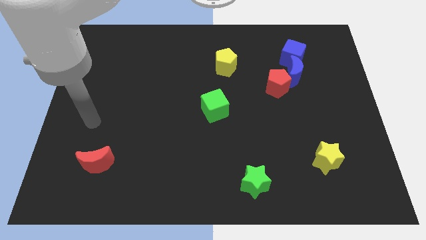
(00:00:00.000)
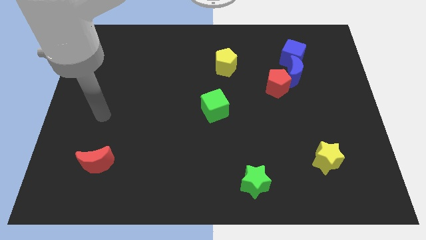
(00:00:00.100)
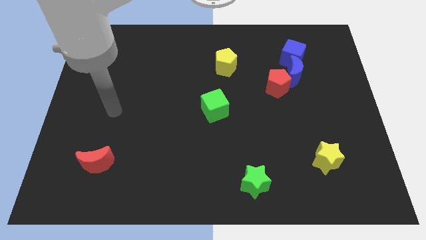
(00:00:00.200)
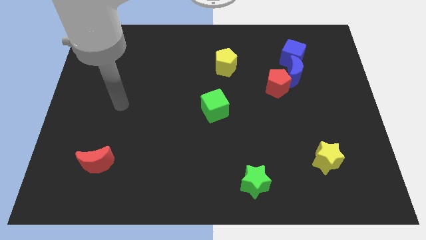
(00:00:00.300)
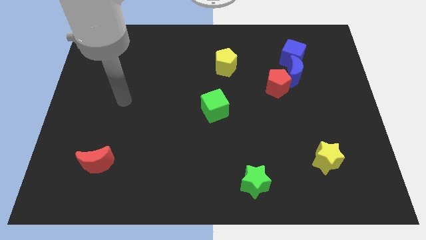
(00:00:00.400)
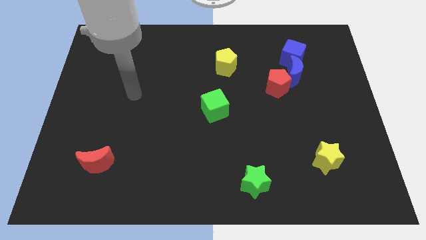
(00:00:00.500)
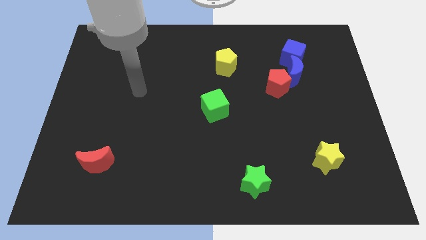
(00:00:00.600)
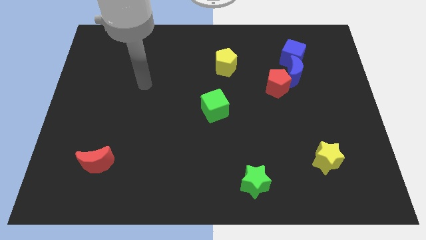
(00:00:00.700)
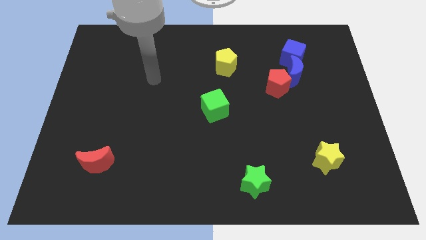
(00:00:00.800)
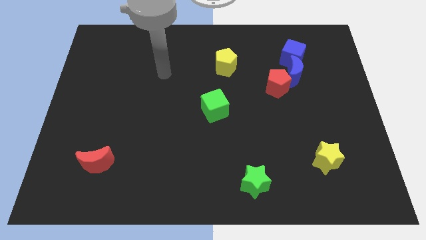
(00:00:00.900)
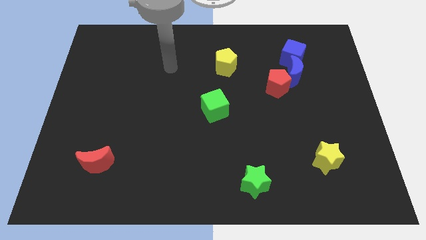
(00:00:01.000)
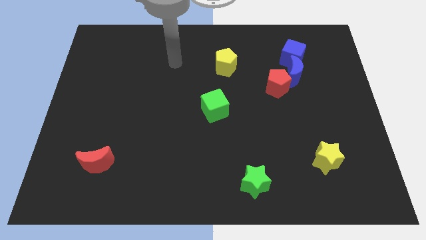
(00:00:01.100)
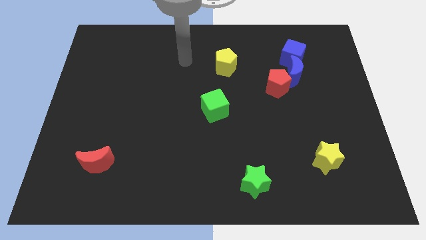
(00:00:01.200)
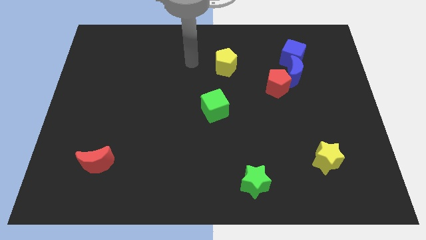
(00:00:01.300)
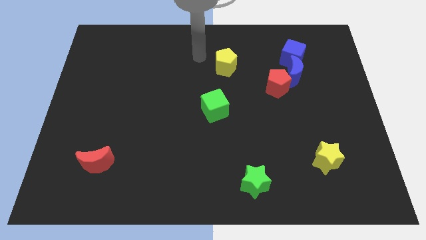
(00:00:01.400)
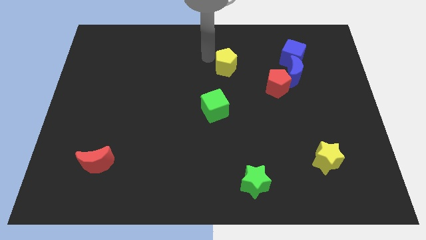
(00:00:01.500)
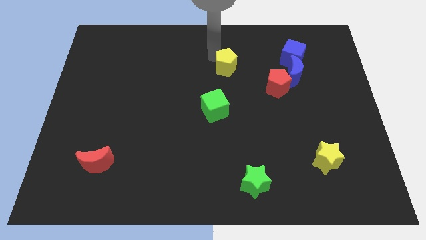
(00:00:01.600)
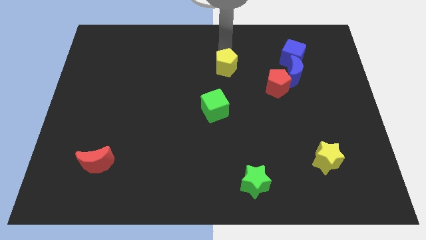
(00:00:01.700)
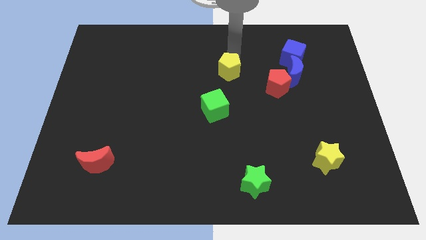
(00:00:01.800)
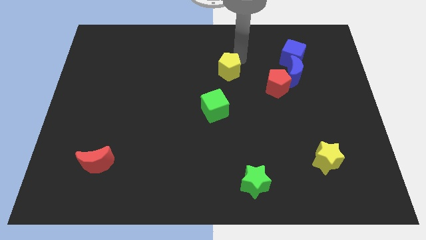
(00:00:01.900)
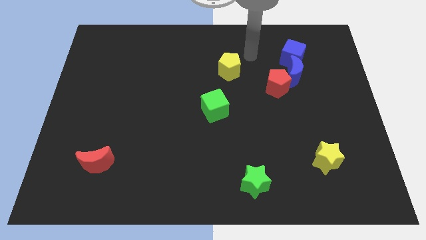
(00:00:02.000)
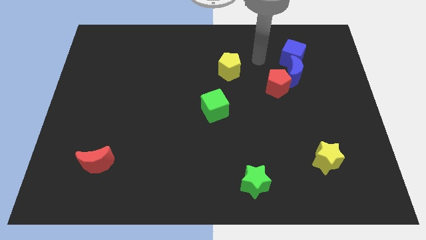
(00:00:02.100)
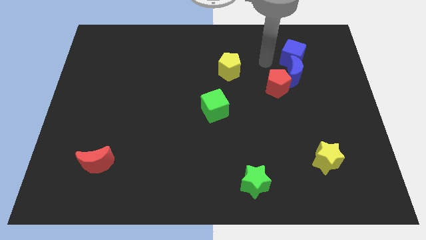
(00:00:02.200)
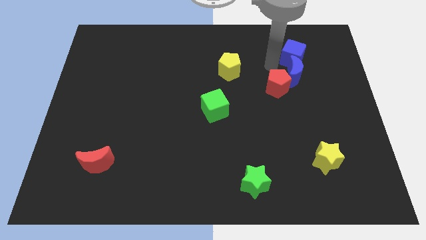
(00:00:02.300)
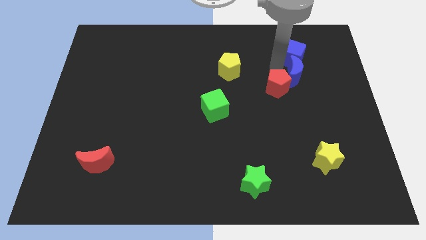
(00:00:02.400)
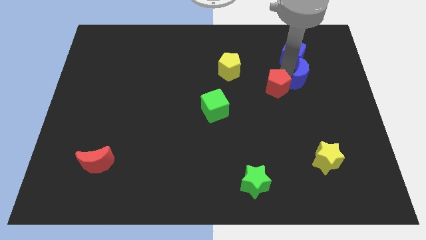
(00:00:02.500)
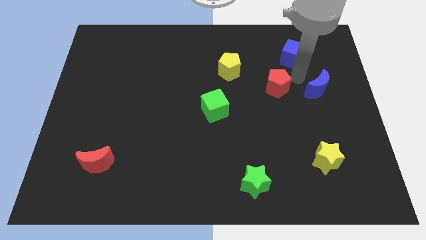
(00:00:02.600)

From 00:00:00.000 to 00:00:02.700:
separate the red pentagon from the blue moon

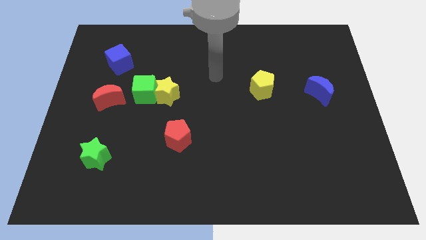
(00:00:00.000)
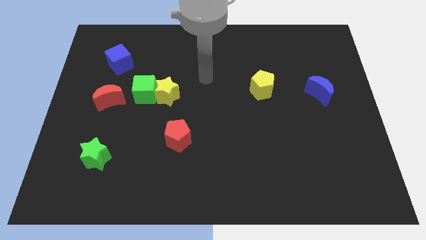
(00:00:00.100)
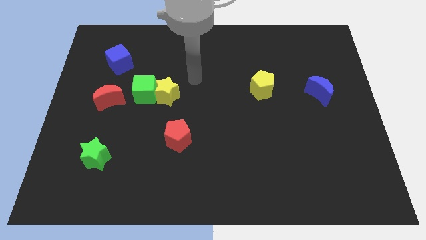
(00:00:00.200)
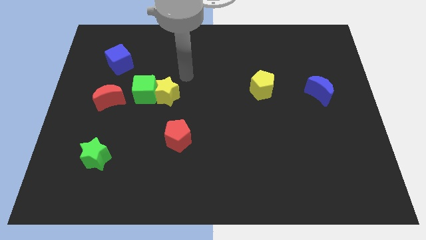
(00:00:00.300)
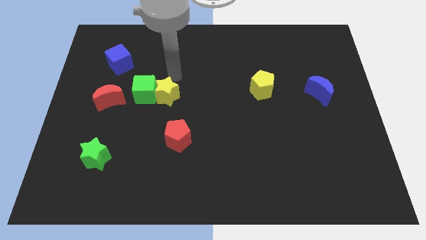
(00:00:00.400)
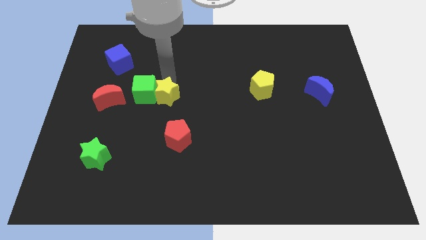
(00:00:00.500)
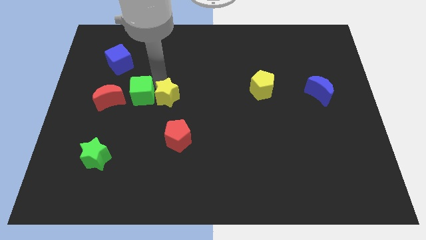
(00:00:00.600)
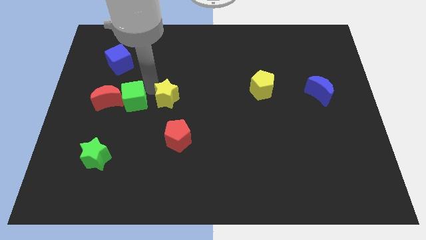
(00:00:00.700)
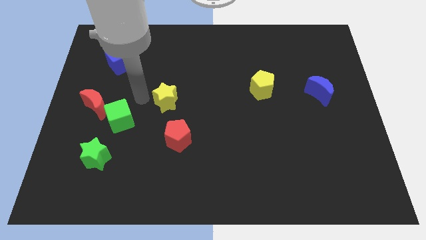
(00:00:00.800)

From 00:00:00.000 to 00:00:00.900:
move the yellow star away from the green cube

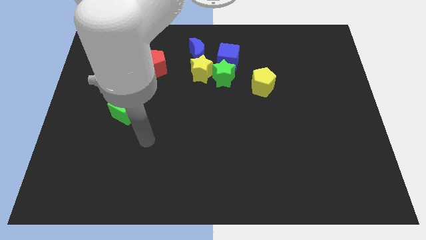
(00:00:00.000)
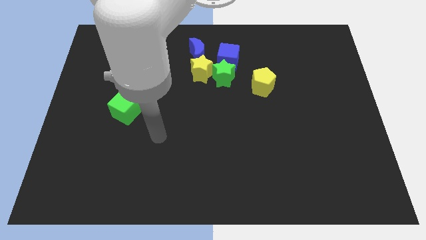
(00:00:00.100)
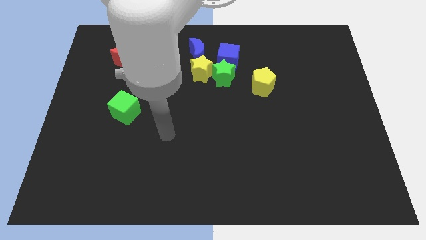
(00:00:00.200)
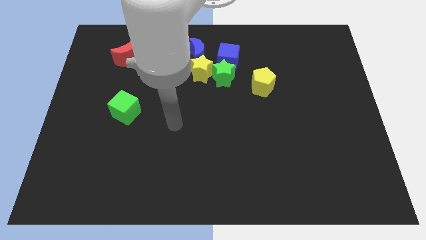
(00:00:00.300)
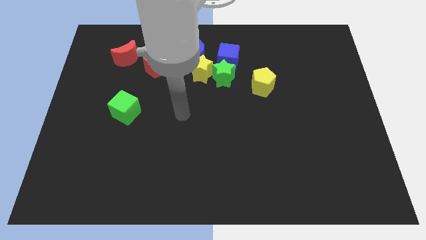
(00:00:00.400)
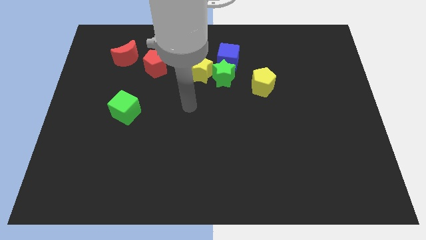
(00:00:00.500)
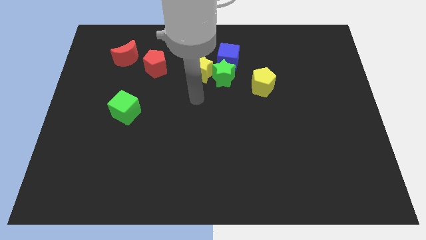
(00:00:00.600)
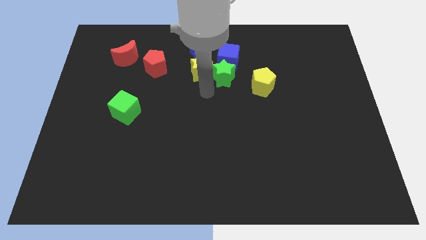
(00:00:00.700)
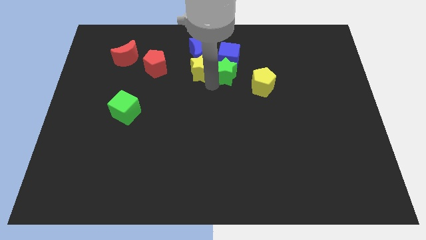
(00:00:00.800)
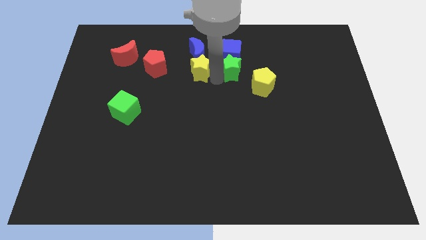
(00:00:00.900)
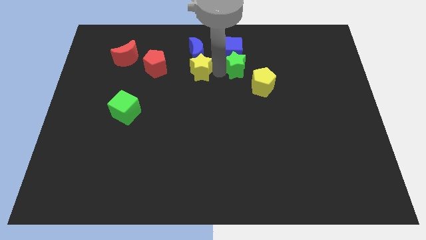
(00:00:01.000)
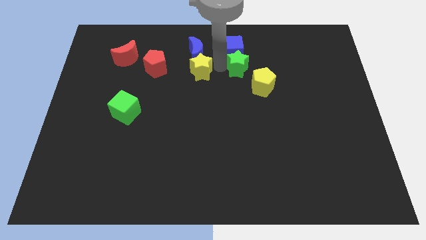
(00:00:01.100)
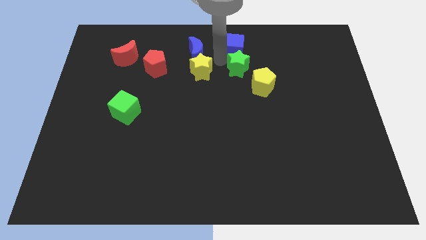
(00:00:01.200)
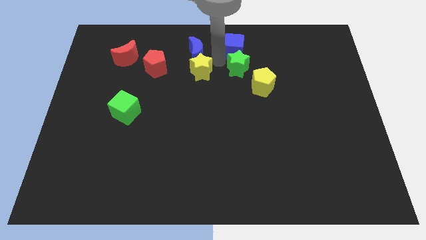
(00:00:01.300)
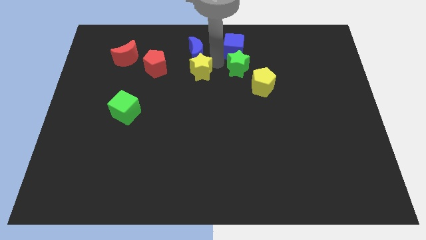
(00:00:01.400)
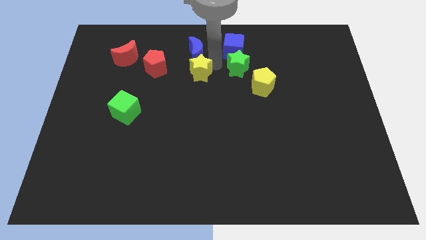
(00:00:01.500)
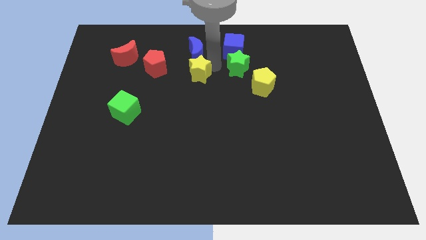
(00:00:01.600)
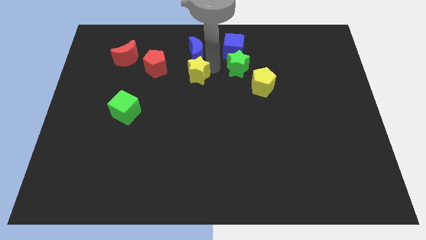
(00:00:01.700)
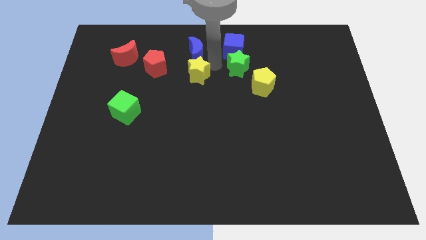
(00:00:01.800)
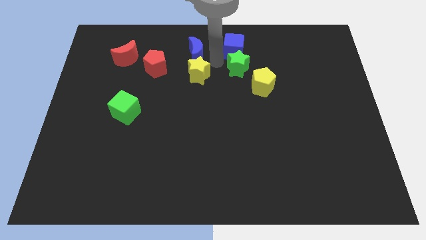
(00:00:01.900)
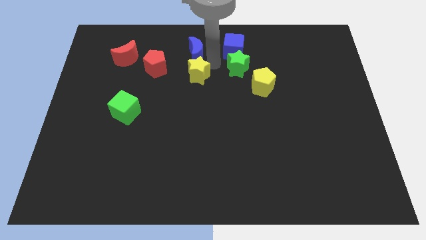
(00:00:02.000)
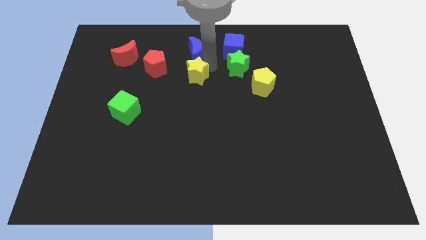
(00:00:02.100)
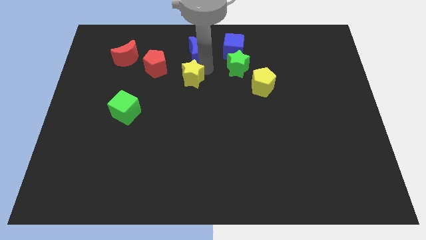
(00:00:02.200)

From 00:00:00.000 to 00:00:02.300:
pull the yellow star apart from the group

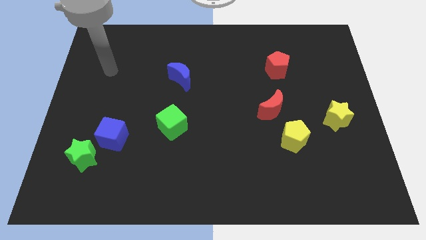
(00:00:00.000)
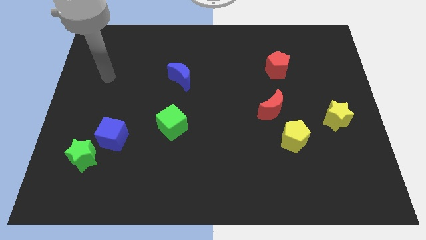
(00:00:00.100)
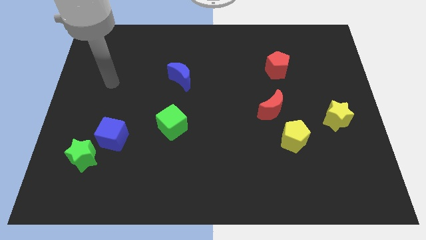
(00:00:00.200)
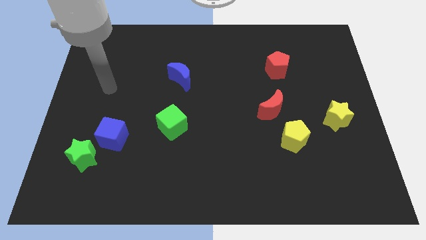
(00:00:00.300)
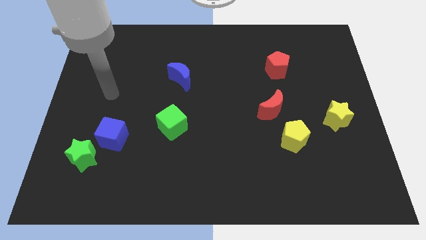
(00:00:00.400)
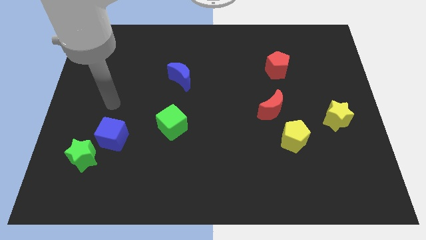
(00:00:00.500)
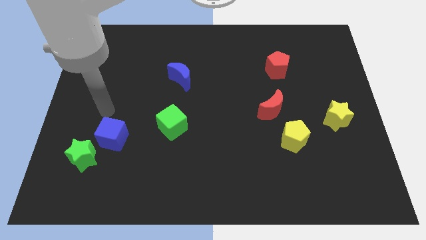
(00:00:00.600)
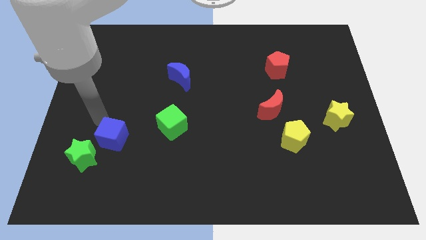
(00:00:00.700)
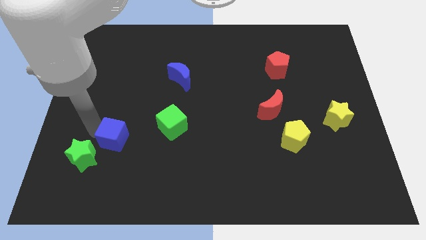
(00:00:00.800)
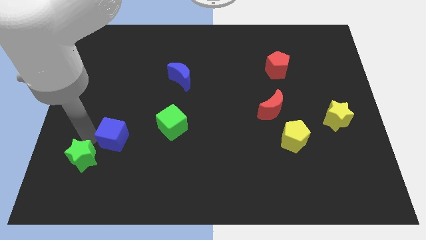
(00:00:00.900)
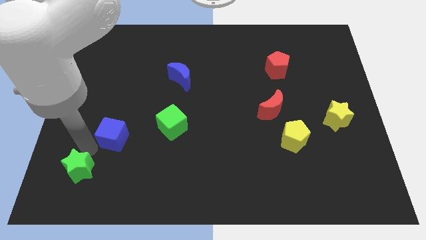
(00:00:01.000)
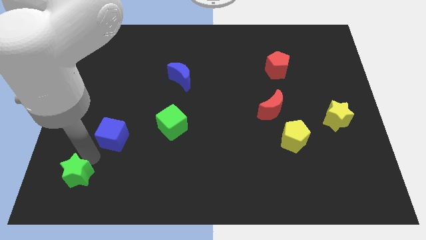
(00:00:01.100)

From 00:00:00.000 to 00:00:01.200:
pull the blue cube apart from the green star

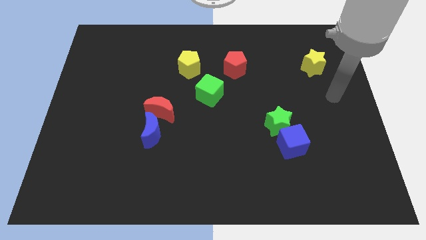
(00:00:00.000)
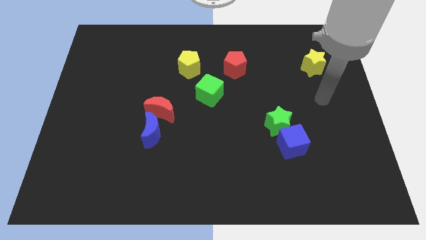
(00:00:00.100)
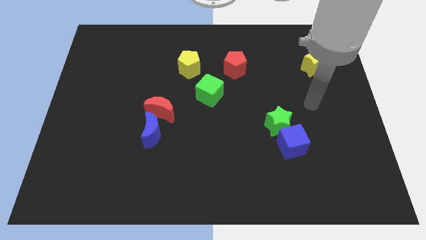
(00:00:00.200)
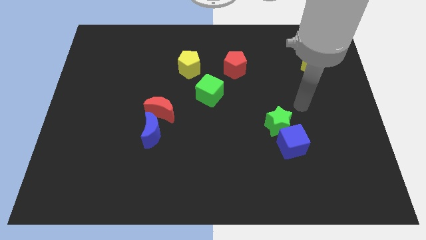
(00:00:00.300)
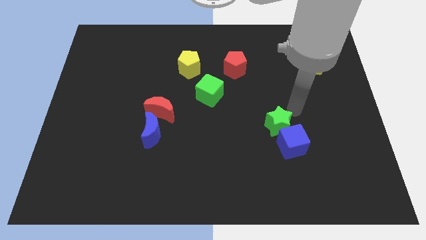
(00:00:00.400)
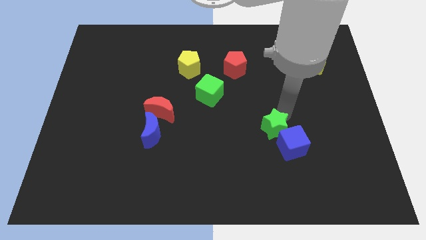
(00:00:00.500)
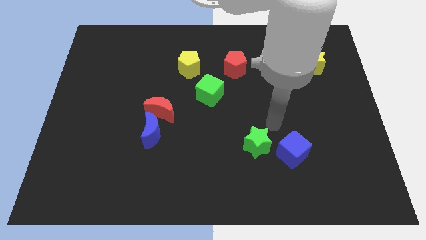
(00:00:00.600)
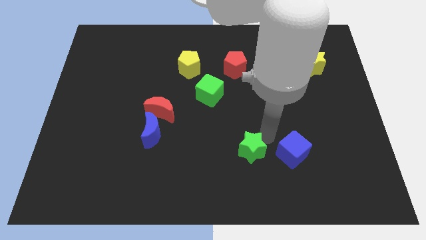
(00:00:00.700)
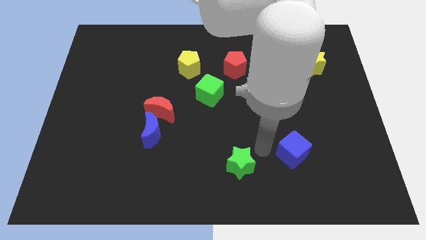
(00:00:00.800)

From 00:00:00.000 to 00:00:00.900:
move the blue cube away from the green star

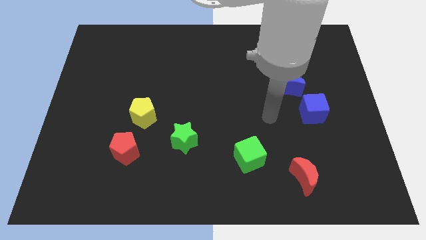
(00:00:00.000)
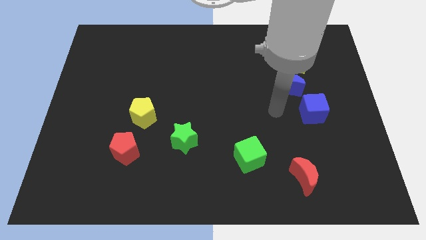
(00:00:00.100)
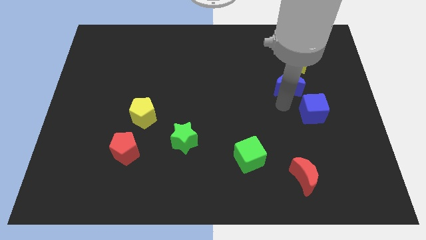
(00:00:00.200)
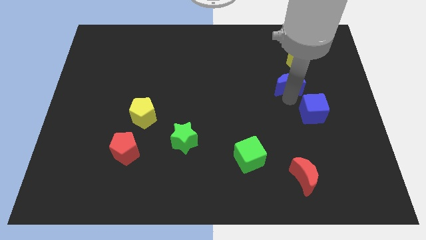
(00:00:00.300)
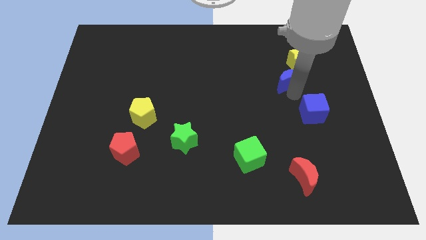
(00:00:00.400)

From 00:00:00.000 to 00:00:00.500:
pull the blue cube apart from the blue moon

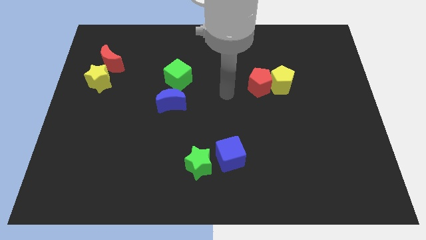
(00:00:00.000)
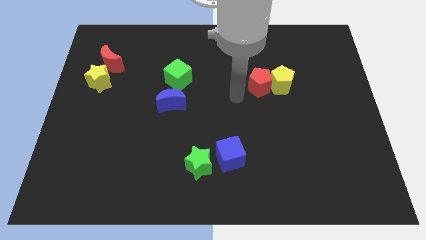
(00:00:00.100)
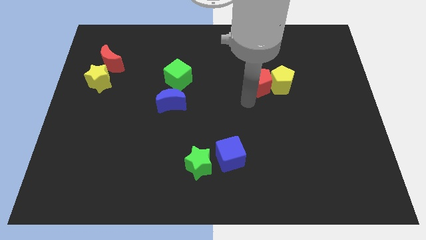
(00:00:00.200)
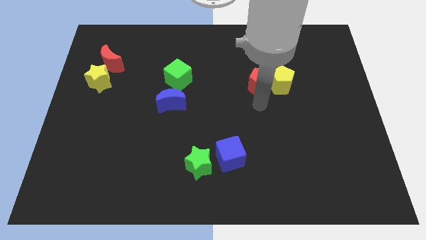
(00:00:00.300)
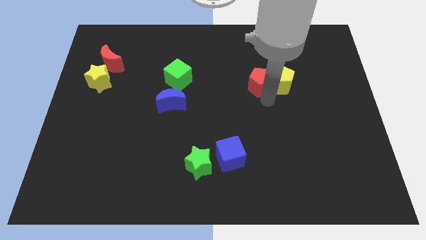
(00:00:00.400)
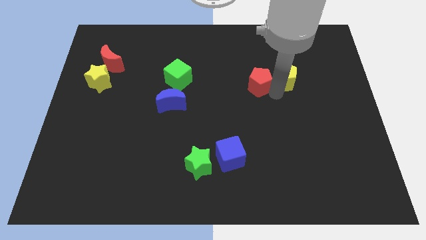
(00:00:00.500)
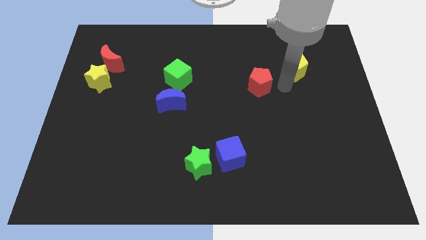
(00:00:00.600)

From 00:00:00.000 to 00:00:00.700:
move the red pentagon away from the yellow pentagon

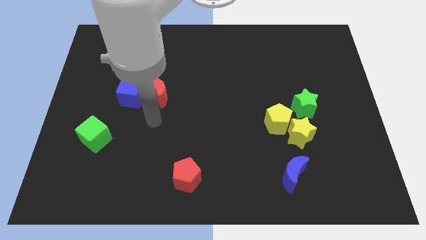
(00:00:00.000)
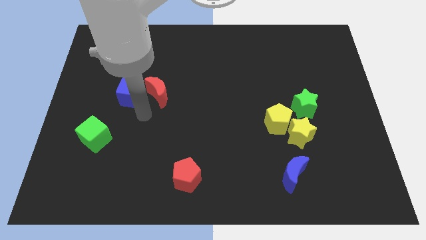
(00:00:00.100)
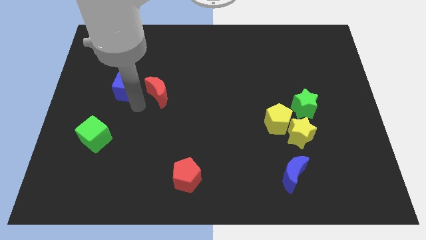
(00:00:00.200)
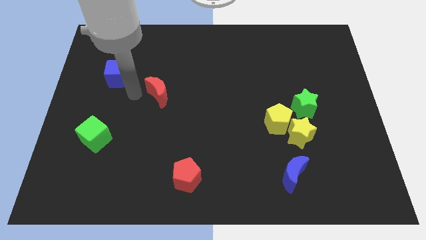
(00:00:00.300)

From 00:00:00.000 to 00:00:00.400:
pull the red moon apart from the blue cube
